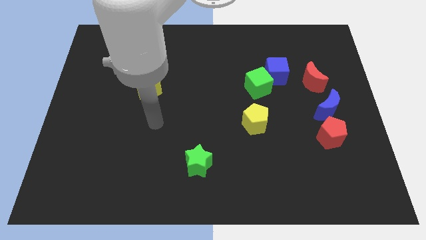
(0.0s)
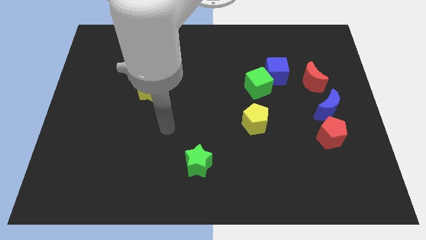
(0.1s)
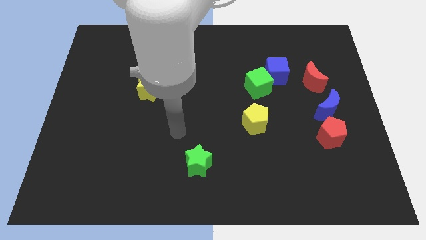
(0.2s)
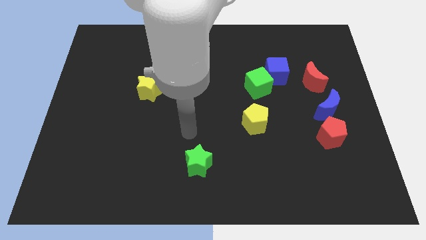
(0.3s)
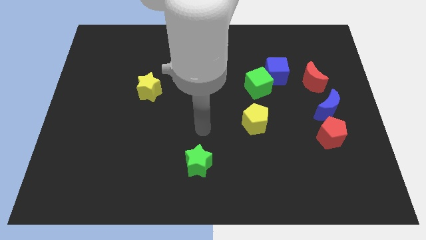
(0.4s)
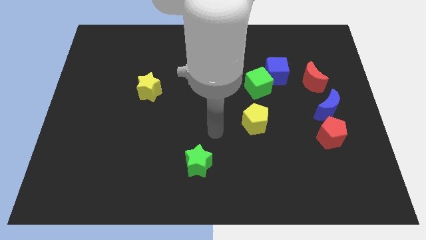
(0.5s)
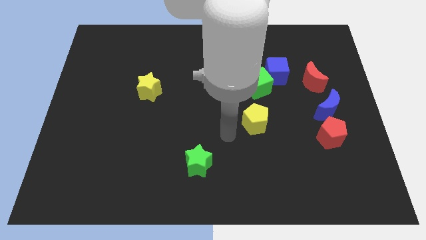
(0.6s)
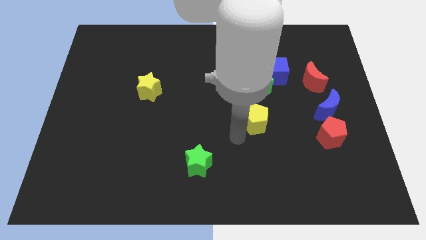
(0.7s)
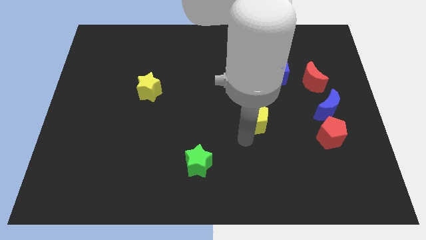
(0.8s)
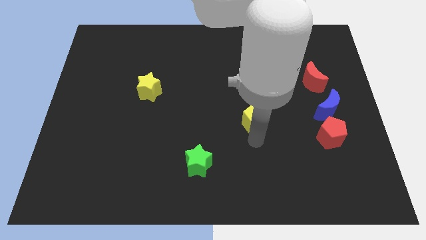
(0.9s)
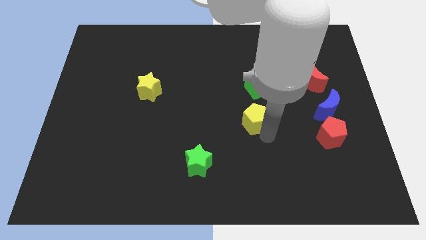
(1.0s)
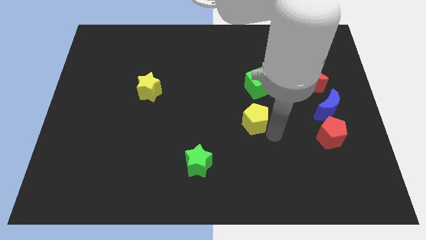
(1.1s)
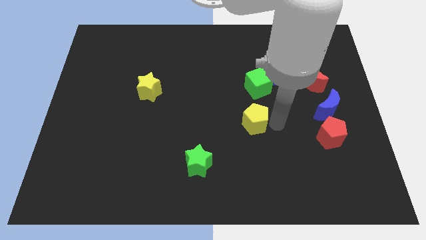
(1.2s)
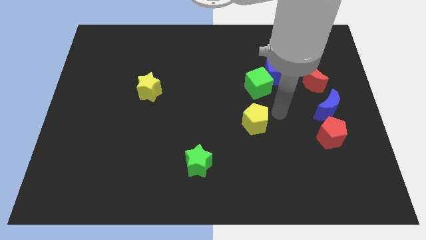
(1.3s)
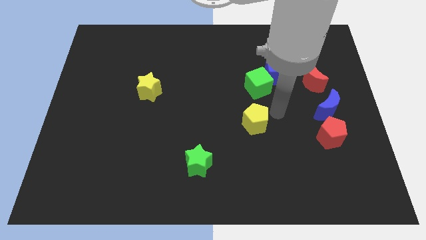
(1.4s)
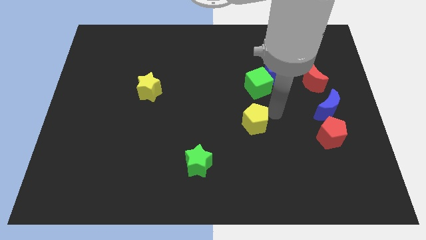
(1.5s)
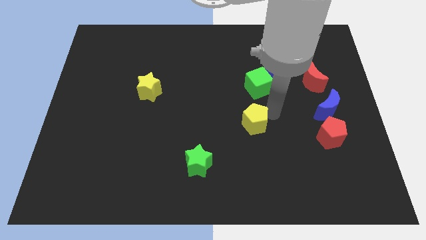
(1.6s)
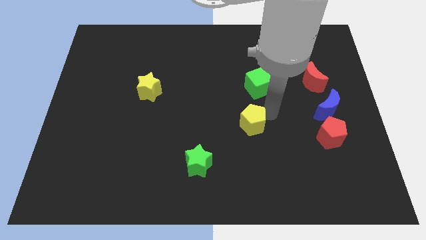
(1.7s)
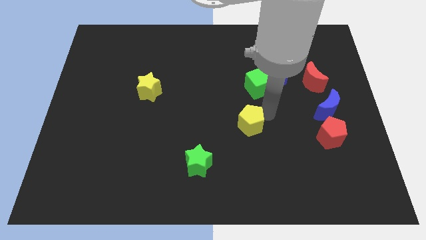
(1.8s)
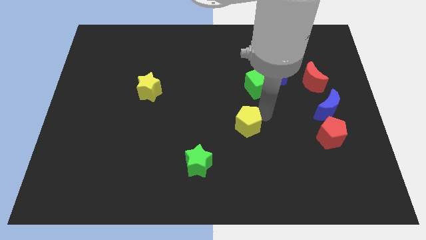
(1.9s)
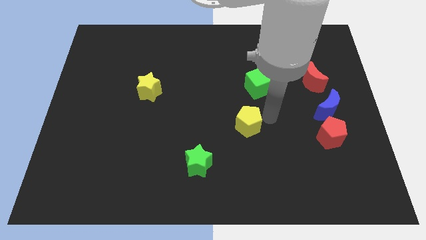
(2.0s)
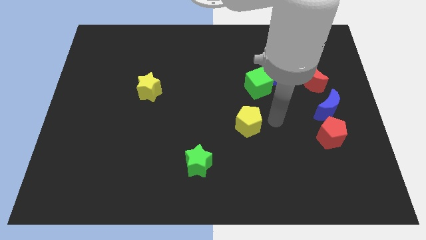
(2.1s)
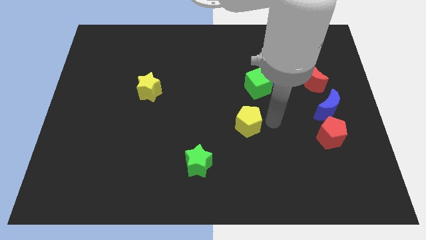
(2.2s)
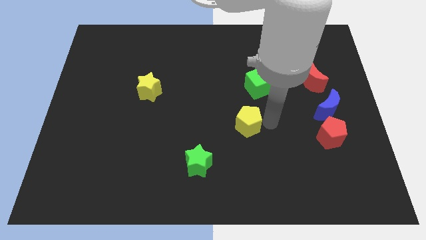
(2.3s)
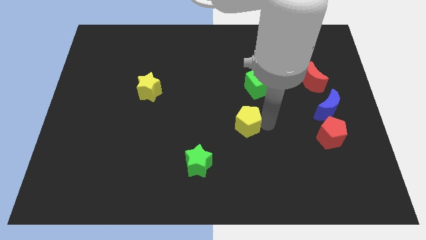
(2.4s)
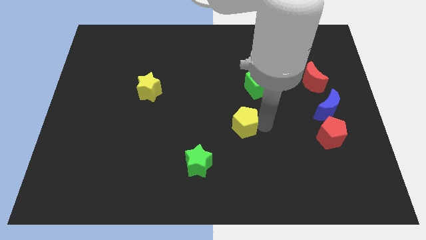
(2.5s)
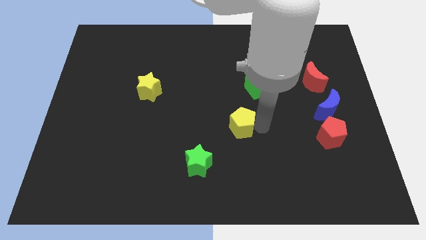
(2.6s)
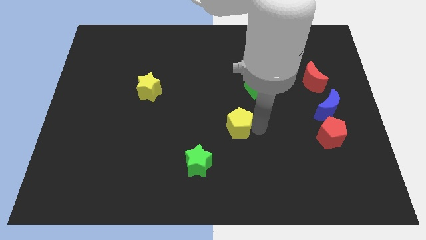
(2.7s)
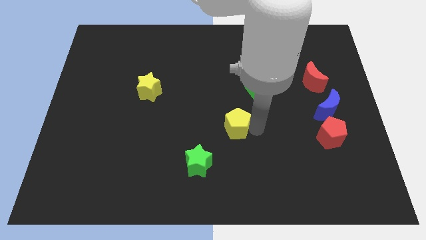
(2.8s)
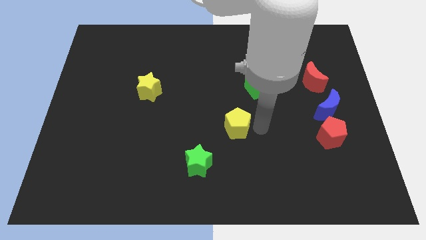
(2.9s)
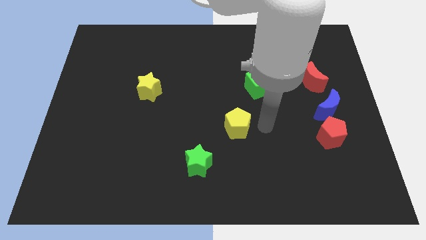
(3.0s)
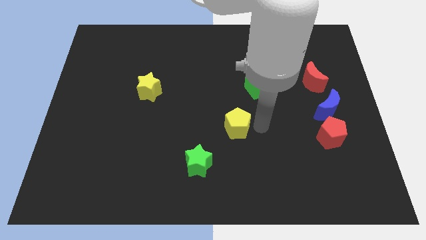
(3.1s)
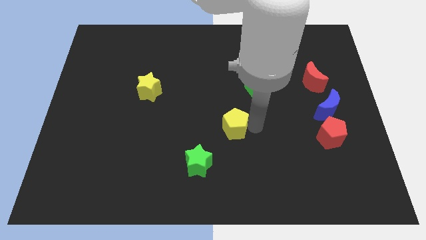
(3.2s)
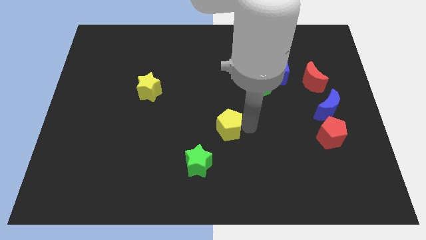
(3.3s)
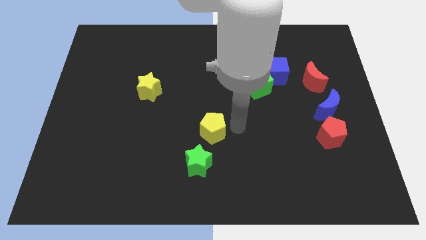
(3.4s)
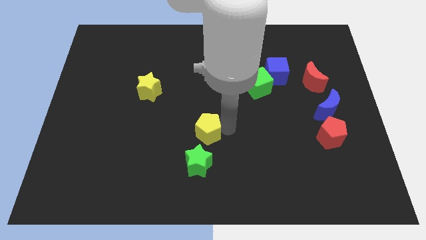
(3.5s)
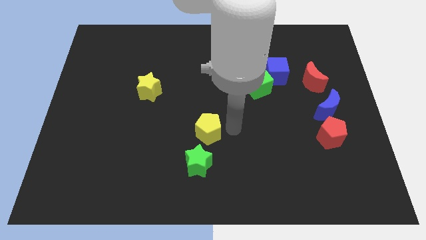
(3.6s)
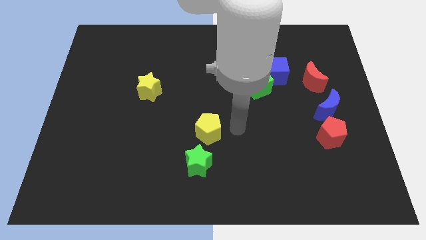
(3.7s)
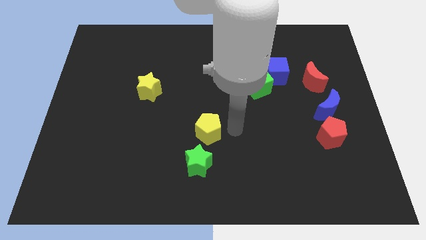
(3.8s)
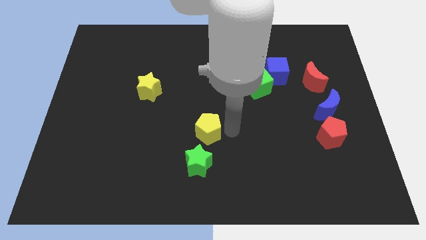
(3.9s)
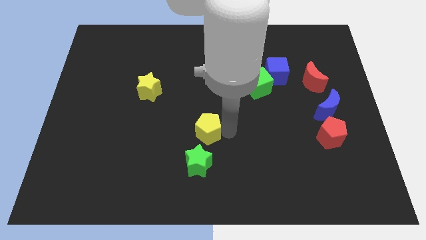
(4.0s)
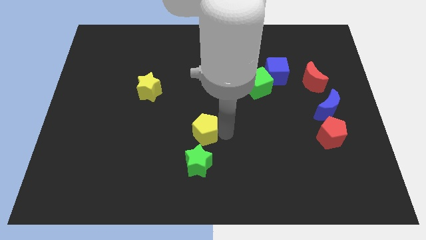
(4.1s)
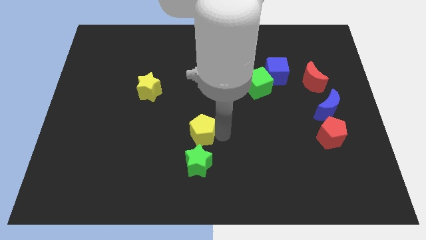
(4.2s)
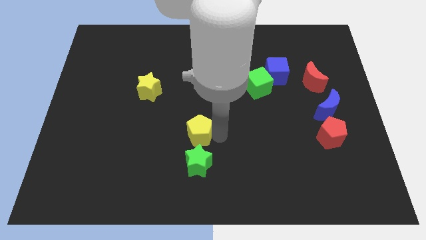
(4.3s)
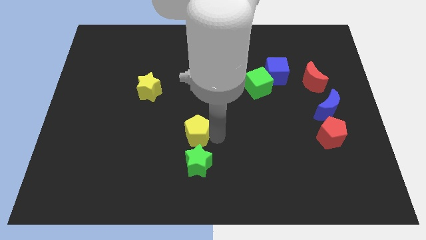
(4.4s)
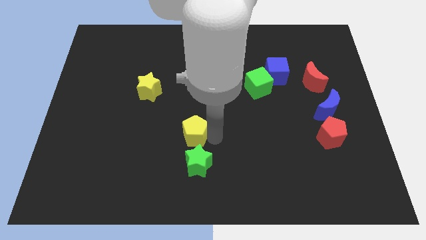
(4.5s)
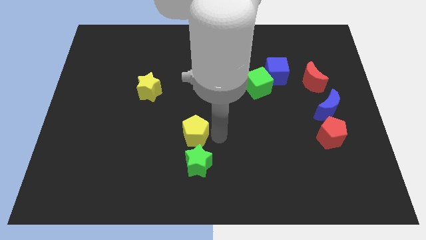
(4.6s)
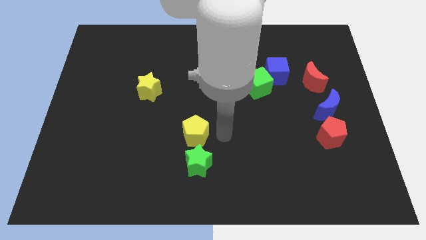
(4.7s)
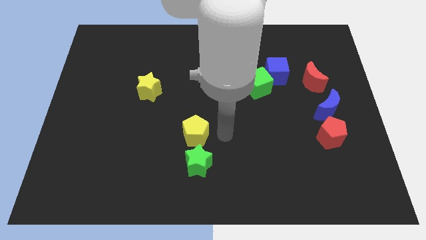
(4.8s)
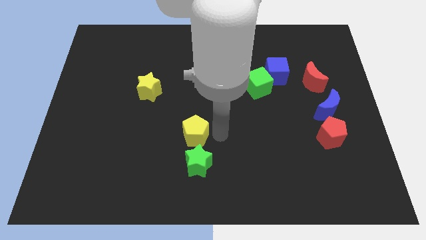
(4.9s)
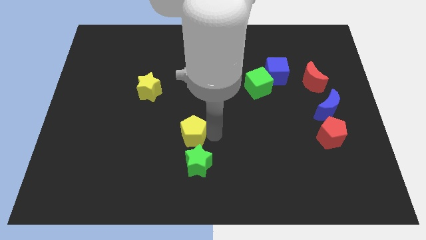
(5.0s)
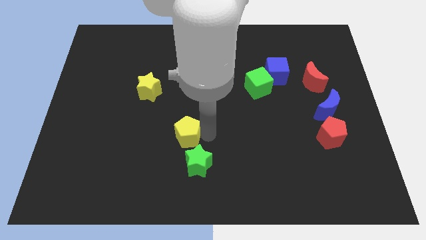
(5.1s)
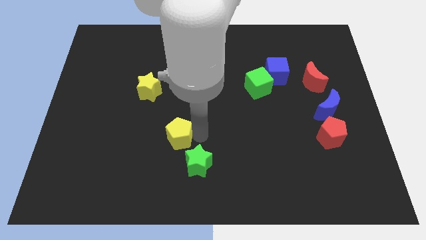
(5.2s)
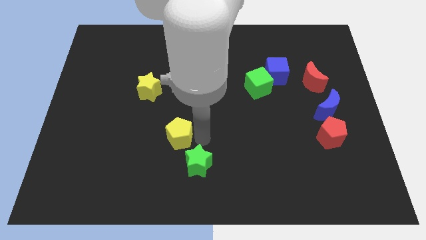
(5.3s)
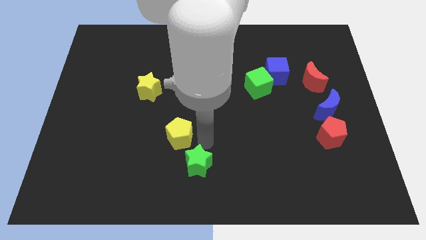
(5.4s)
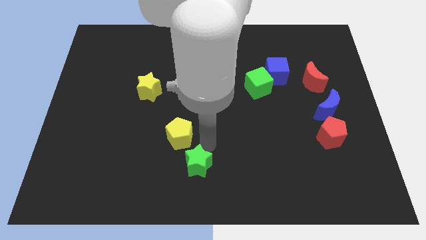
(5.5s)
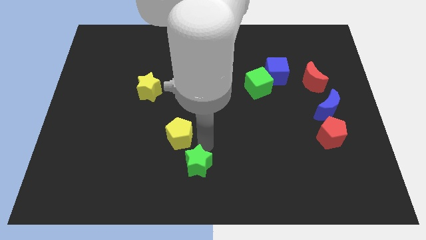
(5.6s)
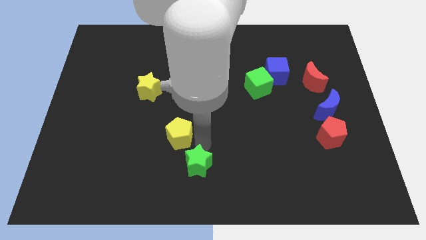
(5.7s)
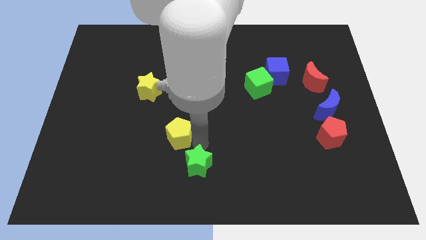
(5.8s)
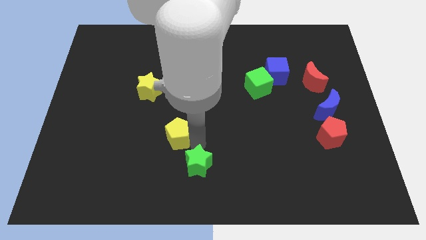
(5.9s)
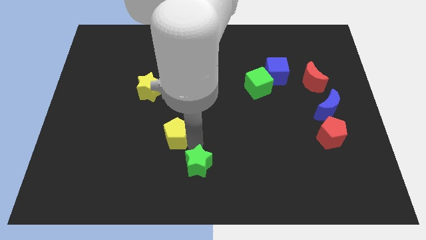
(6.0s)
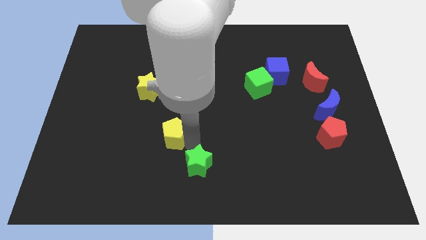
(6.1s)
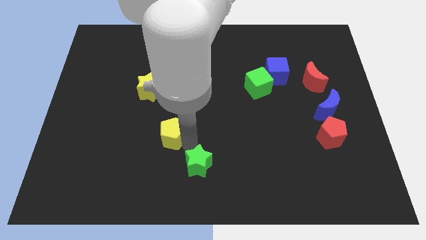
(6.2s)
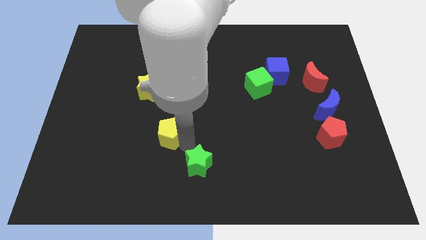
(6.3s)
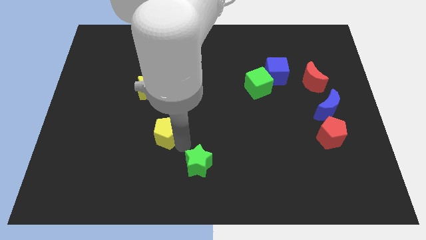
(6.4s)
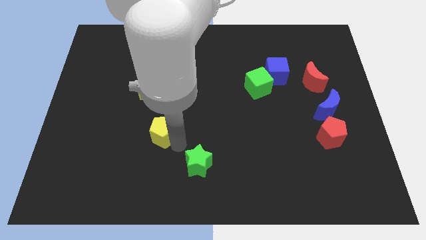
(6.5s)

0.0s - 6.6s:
move the yellow pentagon left

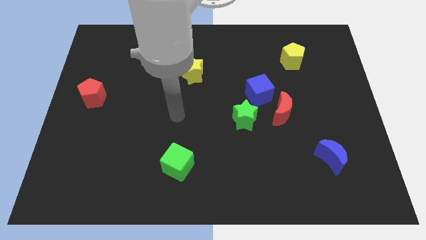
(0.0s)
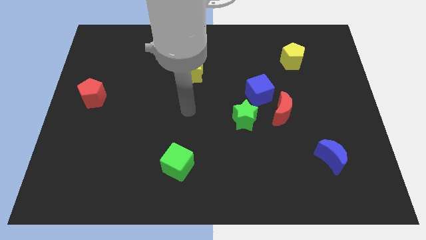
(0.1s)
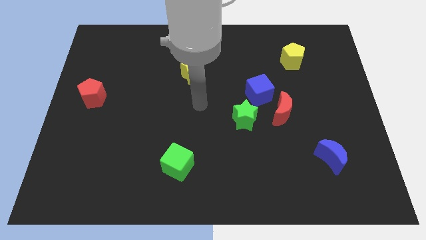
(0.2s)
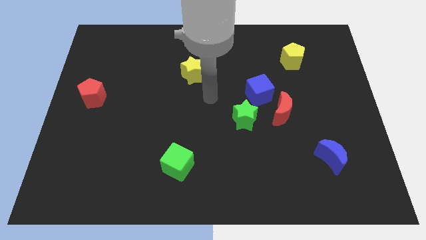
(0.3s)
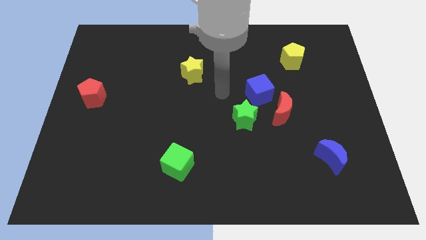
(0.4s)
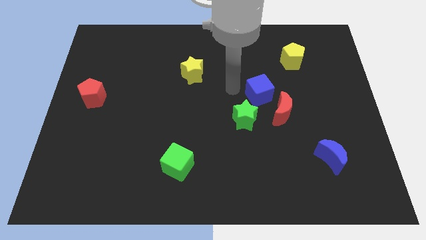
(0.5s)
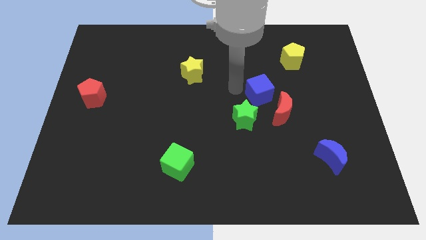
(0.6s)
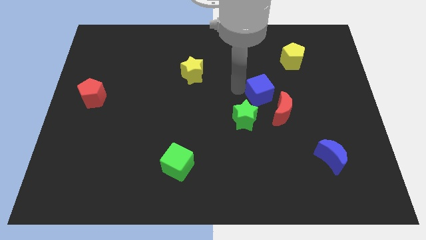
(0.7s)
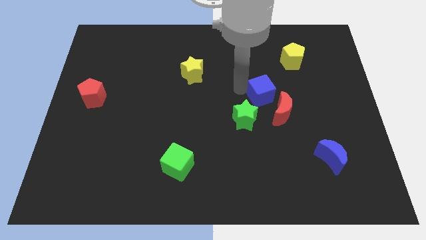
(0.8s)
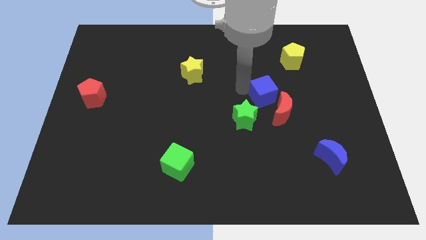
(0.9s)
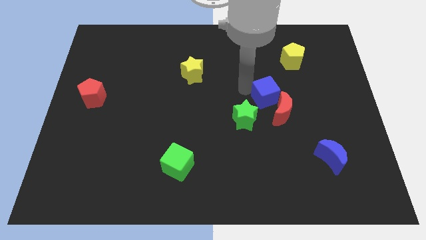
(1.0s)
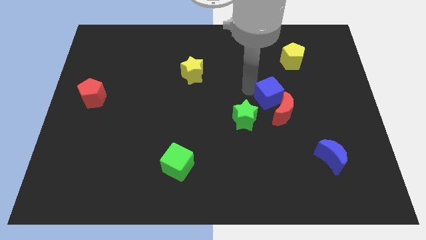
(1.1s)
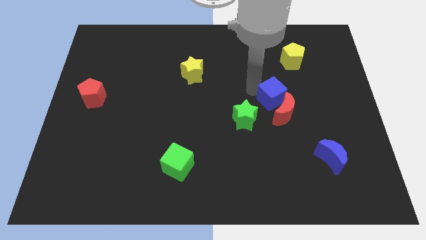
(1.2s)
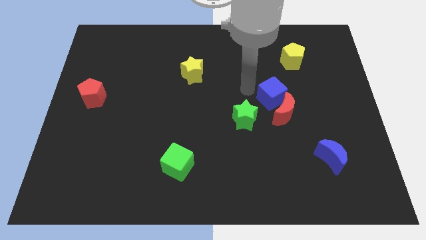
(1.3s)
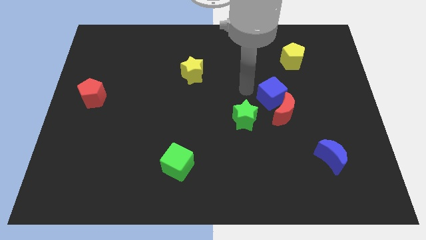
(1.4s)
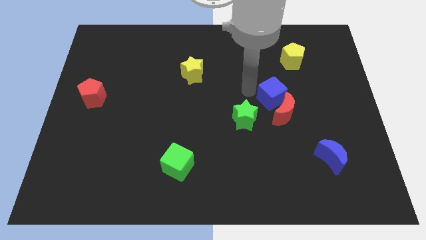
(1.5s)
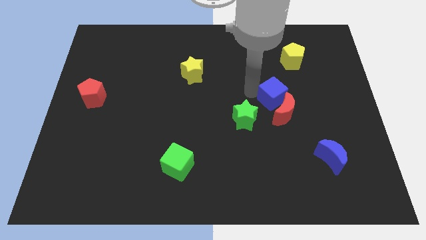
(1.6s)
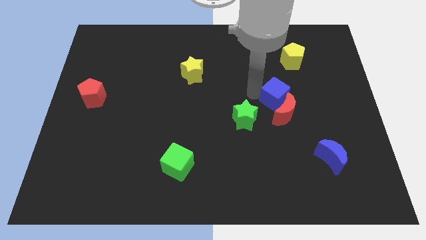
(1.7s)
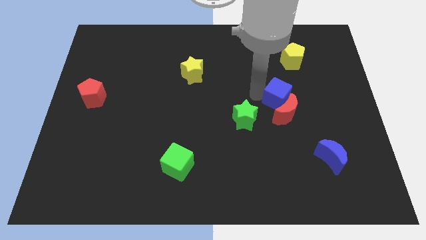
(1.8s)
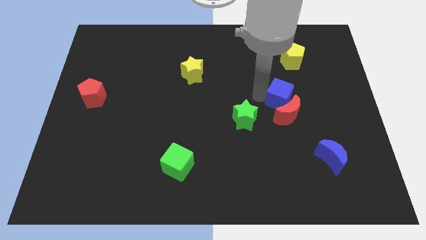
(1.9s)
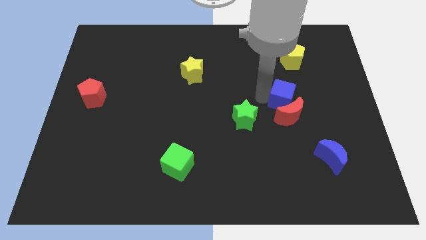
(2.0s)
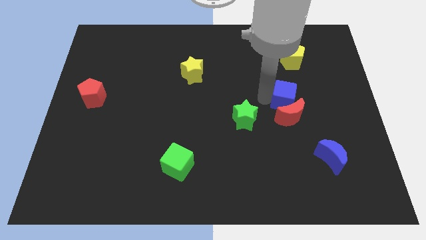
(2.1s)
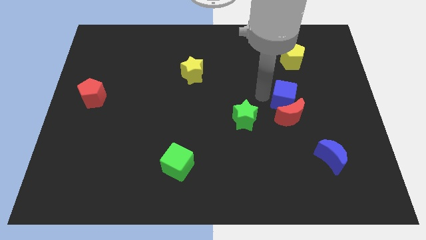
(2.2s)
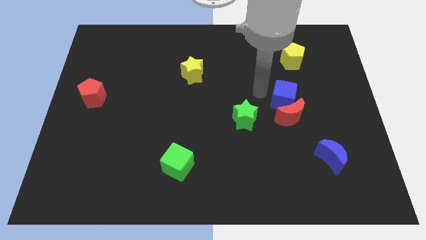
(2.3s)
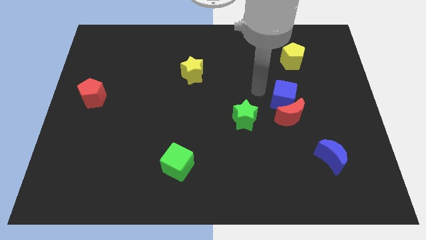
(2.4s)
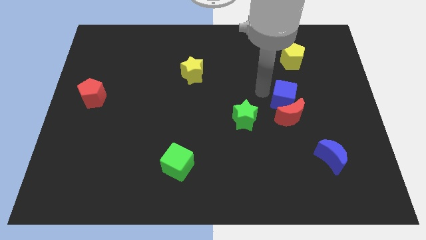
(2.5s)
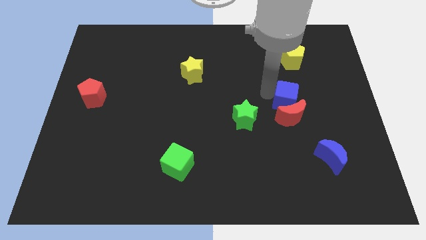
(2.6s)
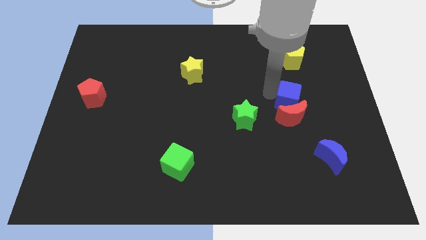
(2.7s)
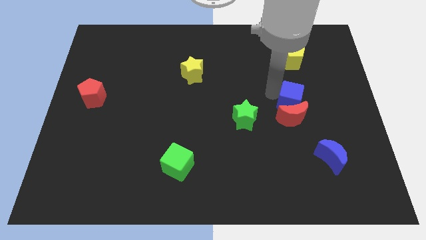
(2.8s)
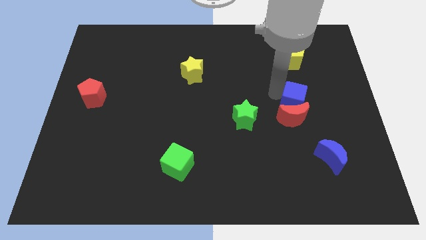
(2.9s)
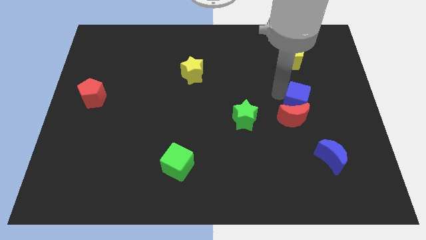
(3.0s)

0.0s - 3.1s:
slide the blue cube a bit down and then to the right
